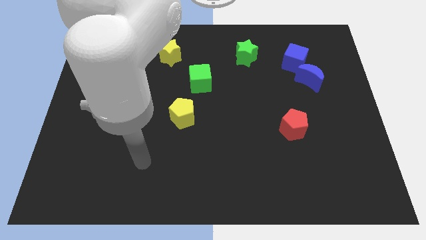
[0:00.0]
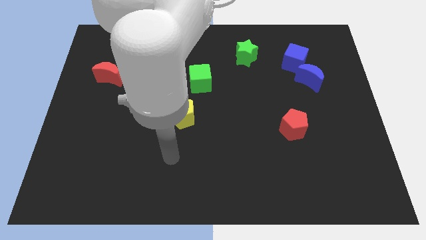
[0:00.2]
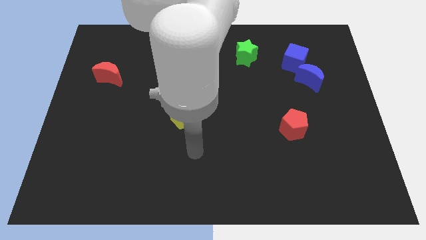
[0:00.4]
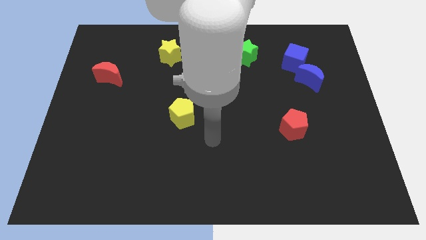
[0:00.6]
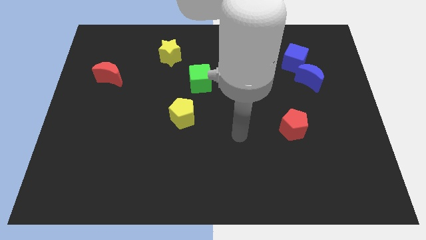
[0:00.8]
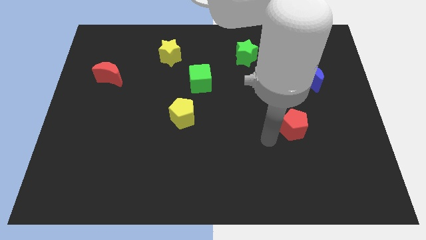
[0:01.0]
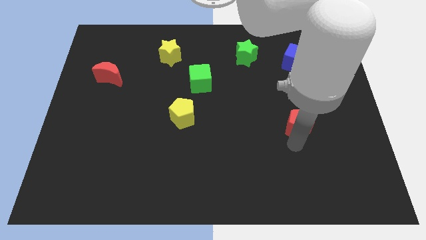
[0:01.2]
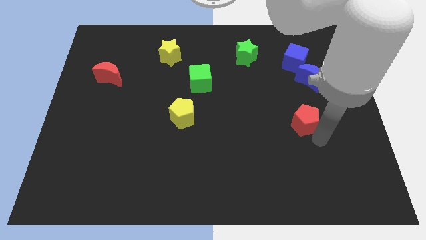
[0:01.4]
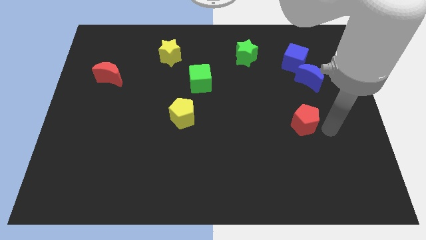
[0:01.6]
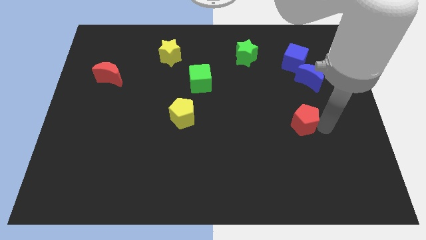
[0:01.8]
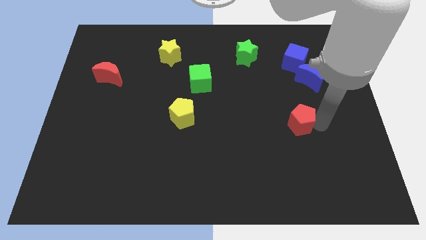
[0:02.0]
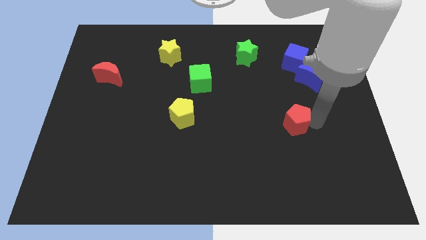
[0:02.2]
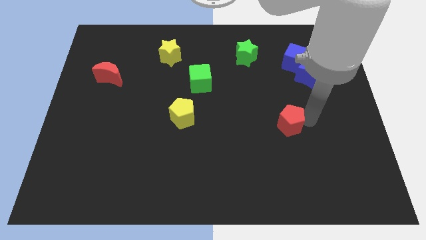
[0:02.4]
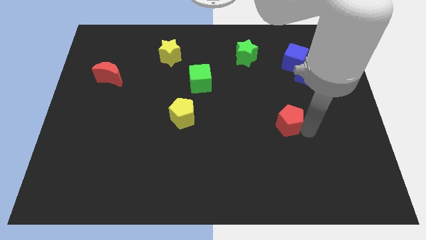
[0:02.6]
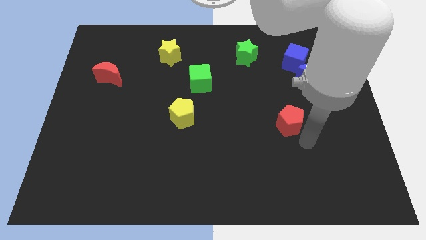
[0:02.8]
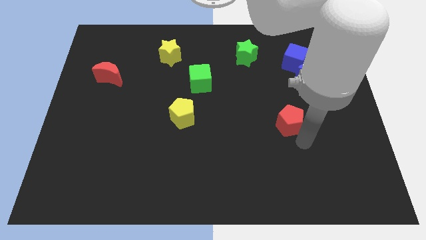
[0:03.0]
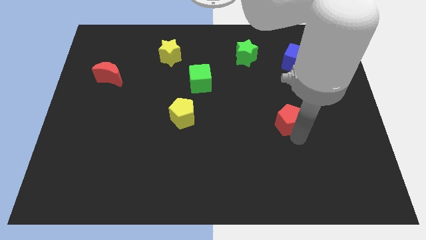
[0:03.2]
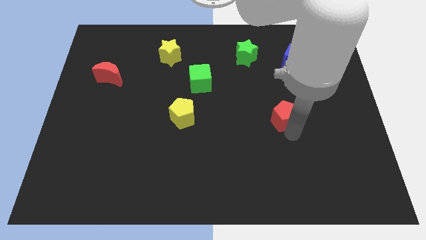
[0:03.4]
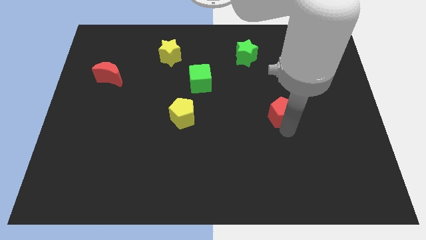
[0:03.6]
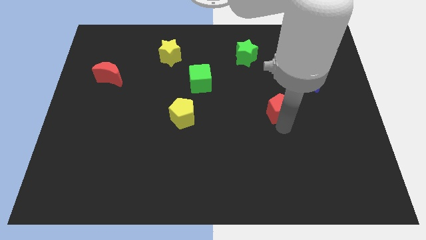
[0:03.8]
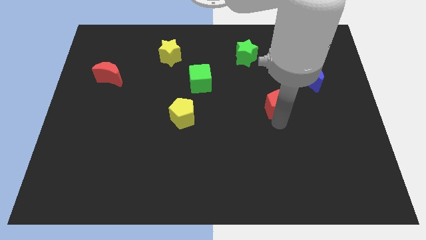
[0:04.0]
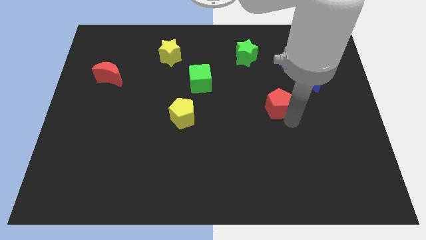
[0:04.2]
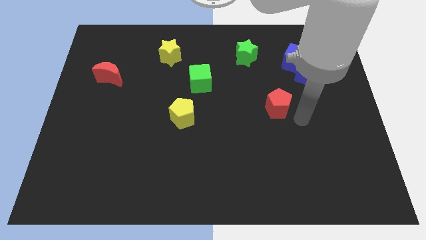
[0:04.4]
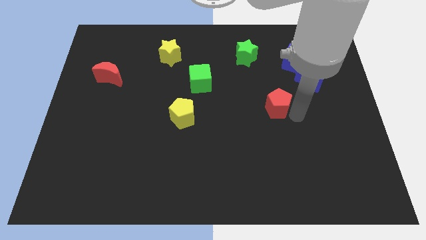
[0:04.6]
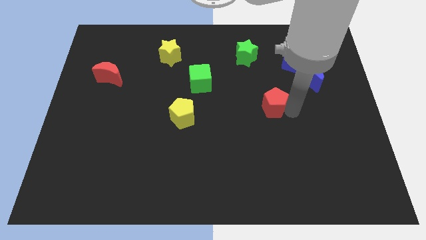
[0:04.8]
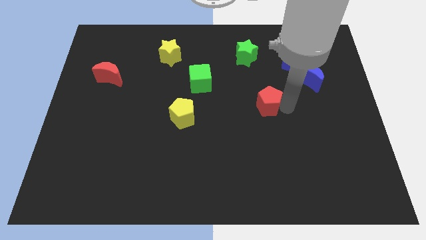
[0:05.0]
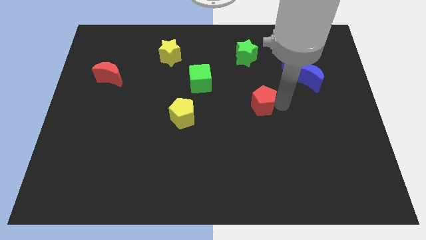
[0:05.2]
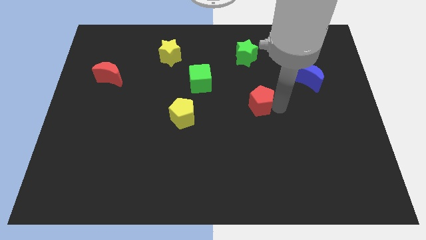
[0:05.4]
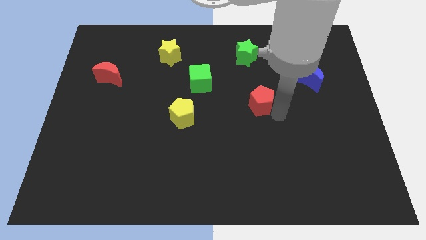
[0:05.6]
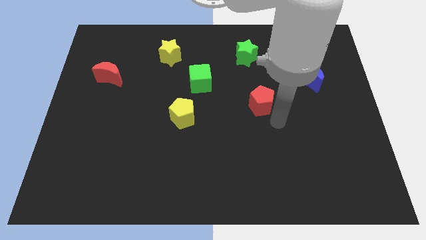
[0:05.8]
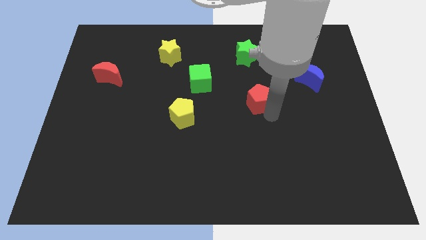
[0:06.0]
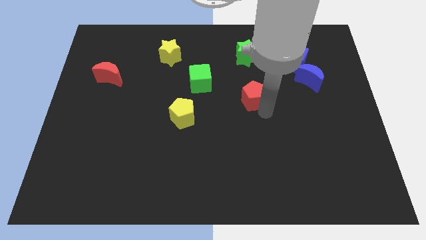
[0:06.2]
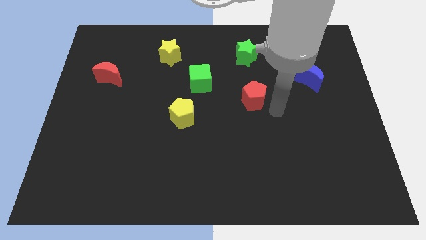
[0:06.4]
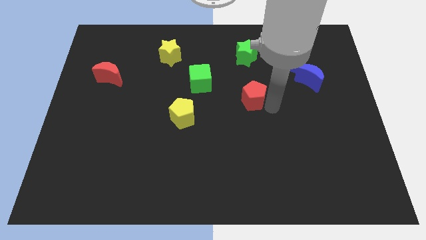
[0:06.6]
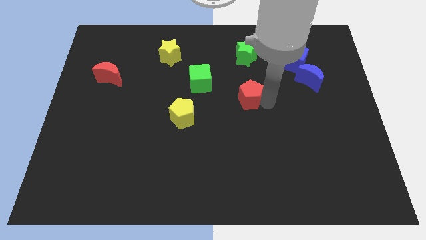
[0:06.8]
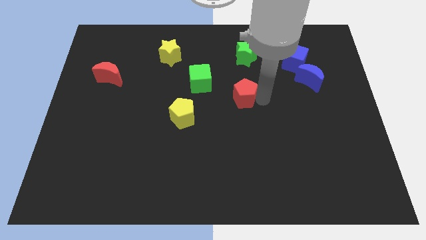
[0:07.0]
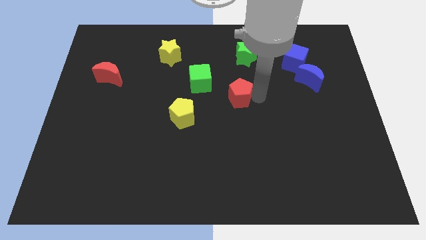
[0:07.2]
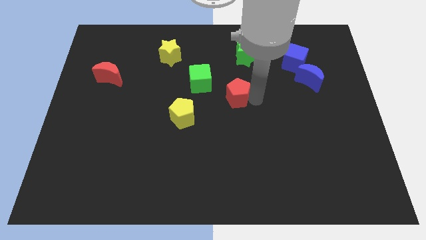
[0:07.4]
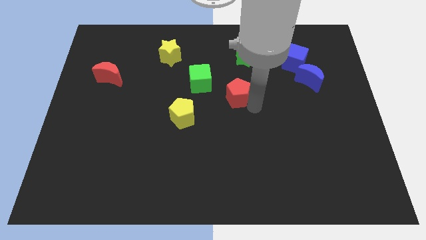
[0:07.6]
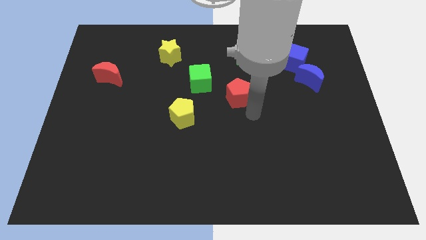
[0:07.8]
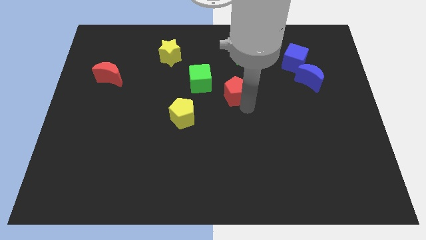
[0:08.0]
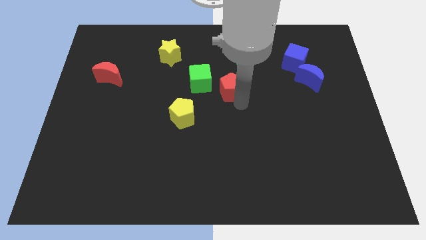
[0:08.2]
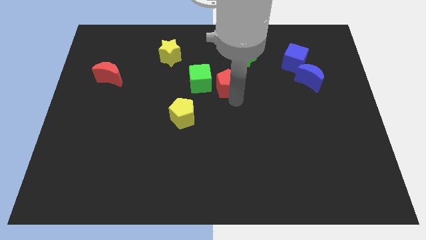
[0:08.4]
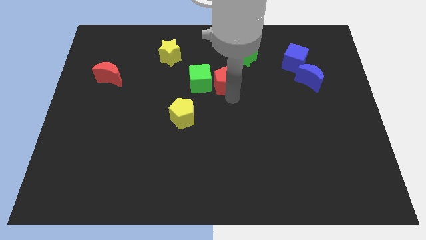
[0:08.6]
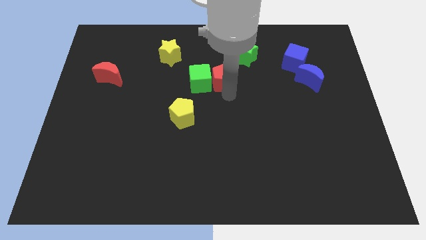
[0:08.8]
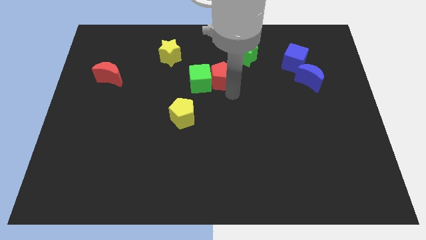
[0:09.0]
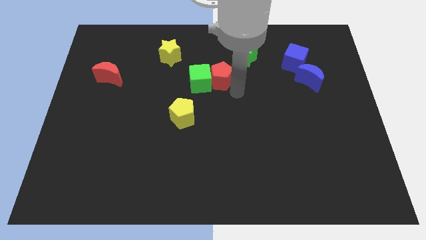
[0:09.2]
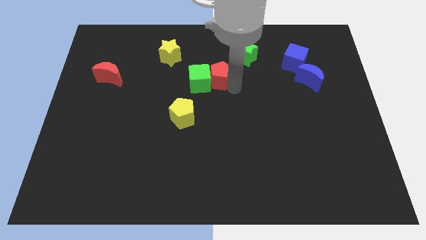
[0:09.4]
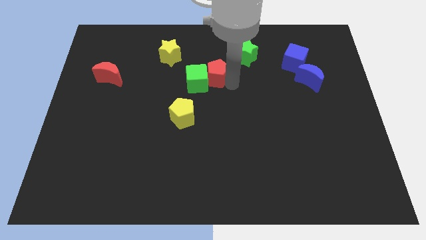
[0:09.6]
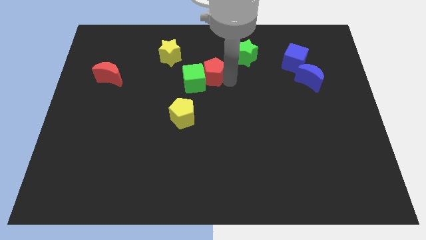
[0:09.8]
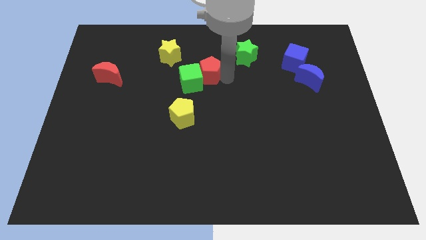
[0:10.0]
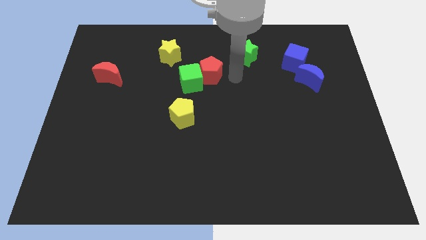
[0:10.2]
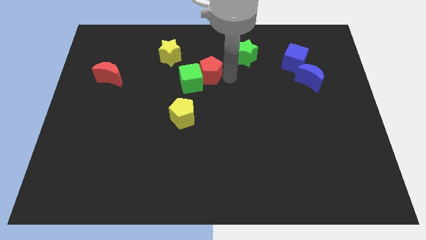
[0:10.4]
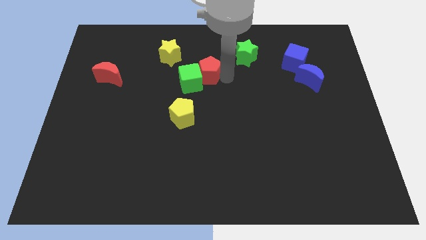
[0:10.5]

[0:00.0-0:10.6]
slide the red pentagon to the bottom right side of the yellow star

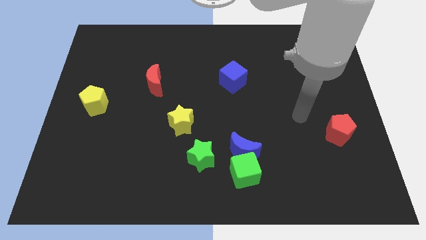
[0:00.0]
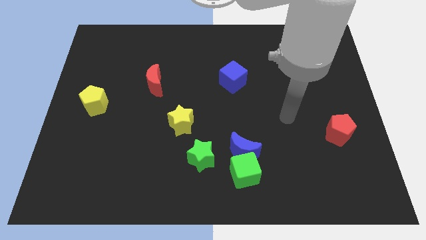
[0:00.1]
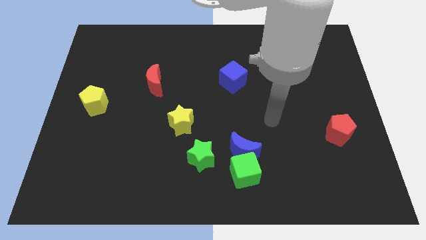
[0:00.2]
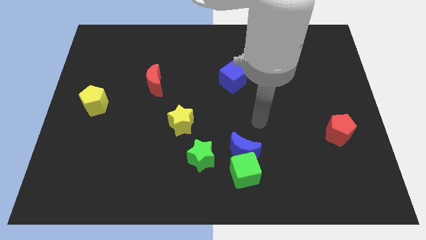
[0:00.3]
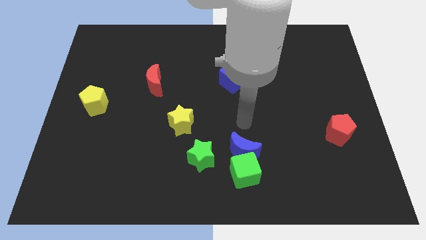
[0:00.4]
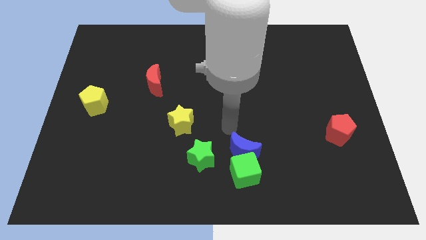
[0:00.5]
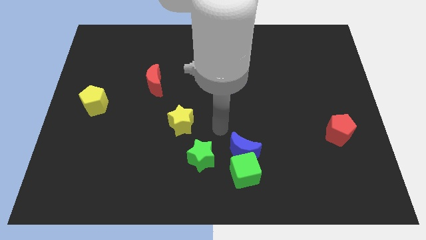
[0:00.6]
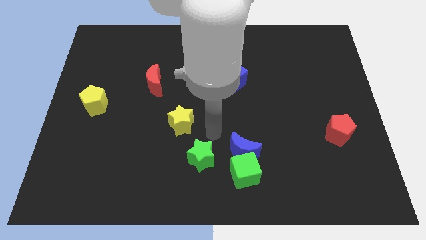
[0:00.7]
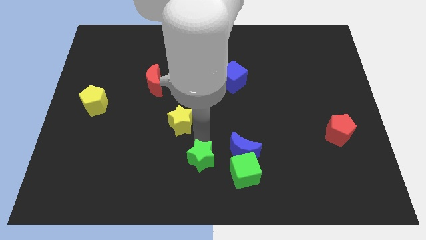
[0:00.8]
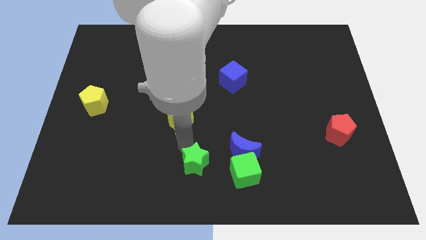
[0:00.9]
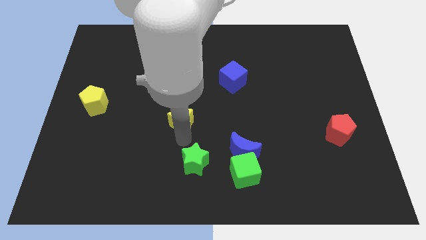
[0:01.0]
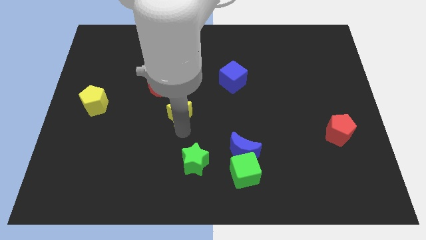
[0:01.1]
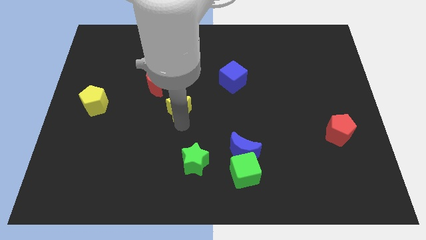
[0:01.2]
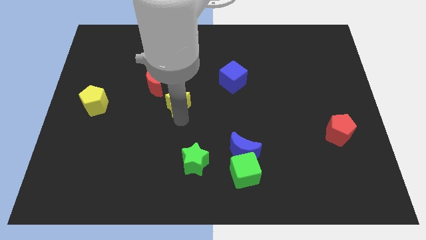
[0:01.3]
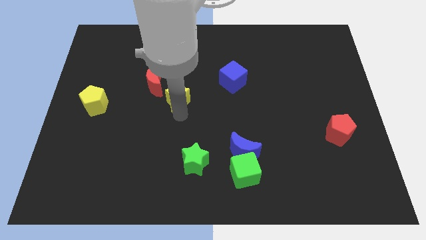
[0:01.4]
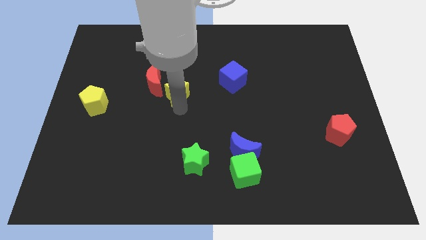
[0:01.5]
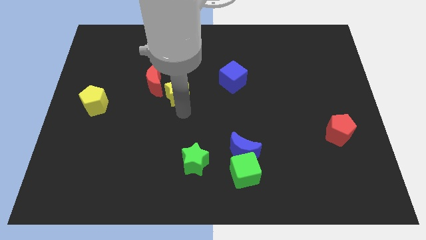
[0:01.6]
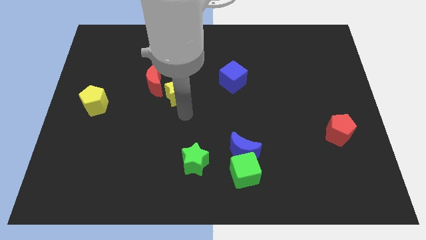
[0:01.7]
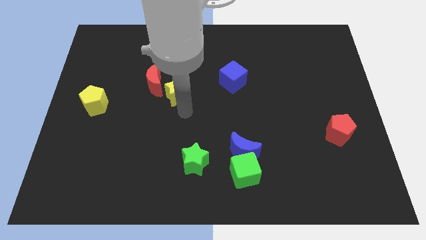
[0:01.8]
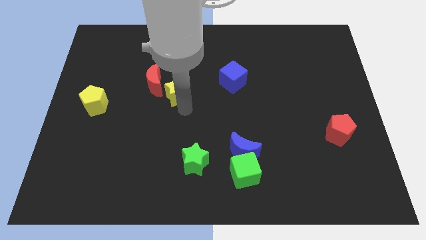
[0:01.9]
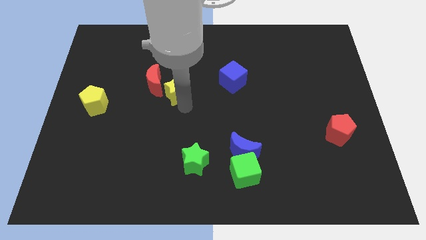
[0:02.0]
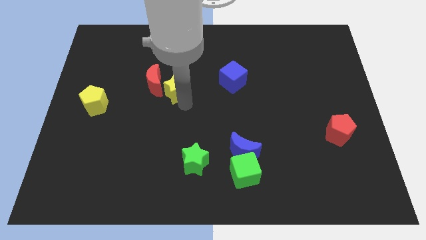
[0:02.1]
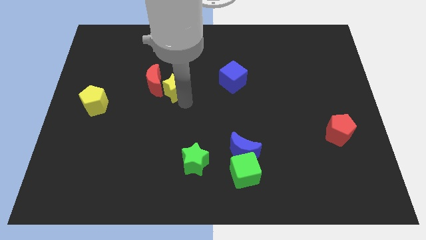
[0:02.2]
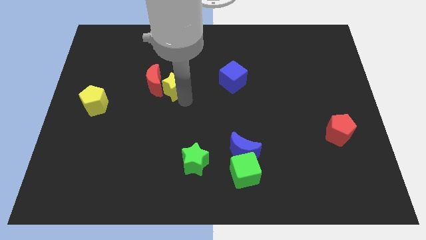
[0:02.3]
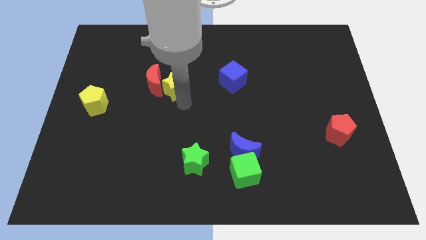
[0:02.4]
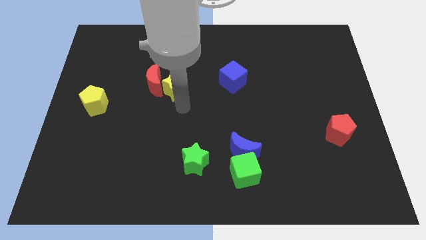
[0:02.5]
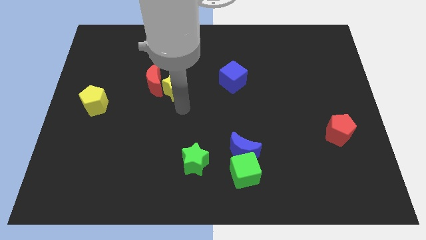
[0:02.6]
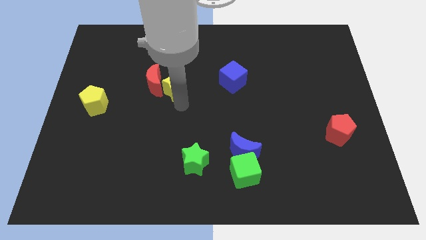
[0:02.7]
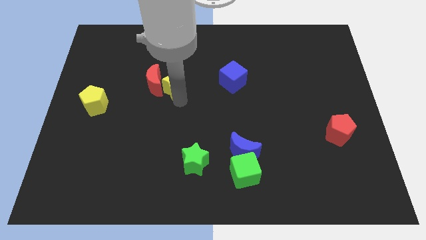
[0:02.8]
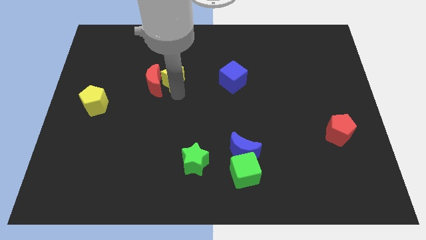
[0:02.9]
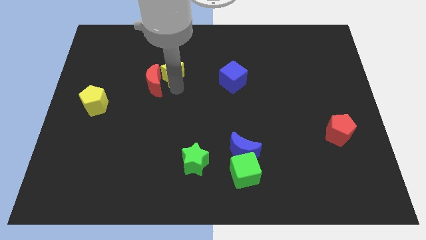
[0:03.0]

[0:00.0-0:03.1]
move the yellow star above the red moon
